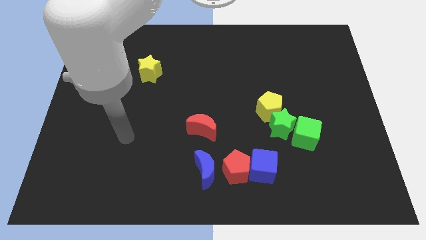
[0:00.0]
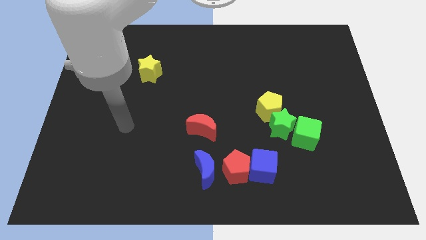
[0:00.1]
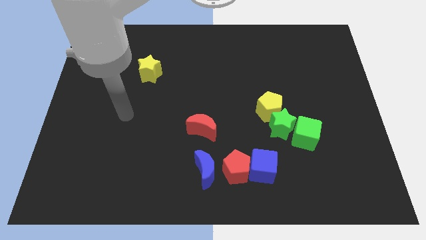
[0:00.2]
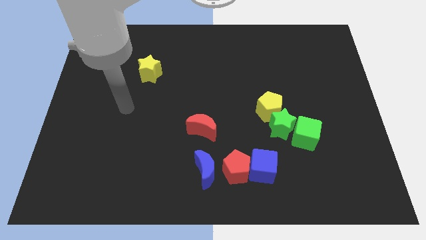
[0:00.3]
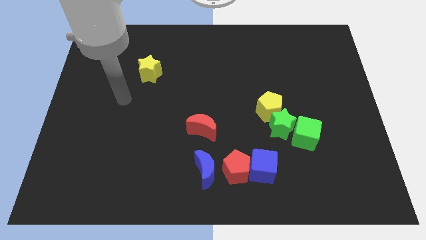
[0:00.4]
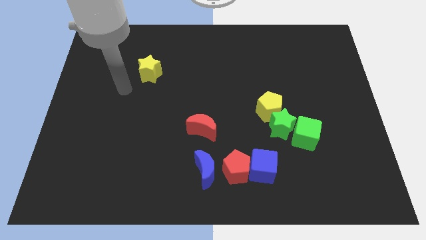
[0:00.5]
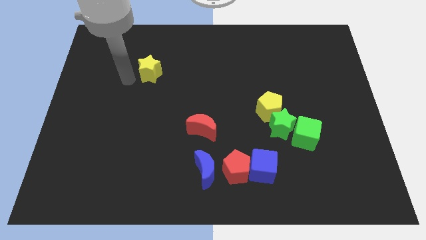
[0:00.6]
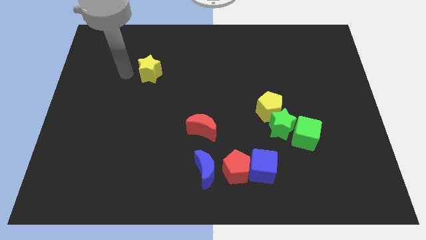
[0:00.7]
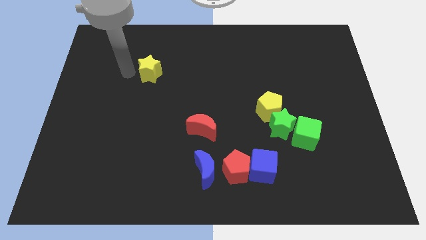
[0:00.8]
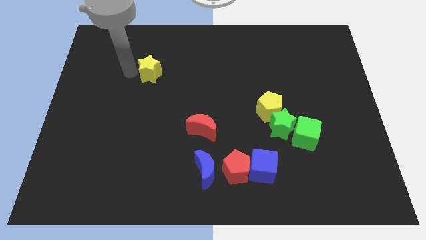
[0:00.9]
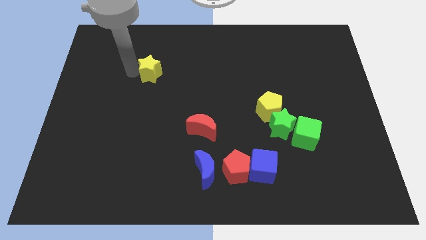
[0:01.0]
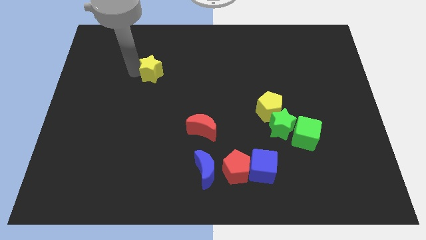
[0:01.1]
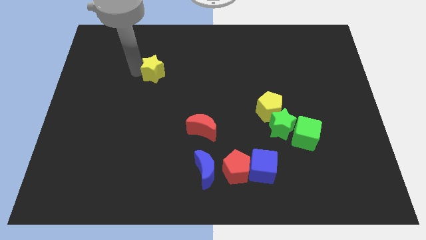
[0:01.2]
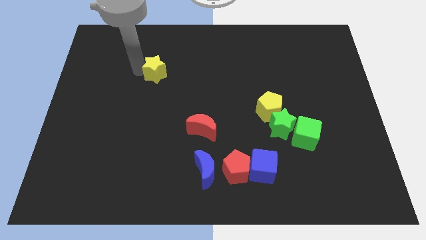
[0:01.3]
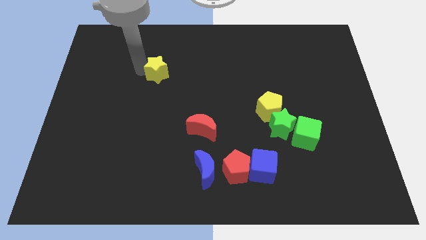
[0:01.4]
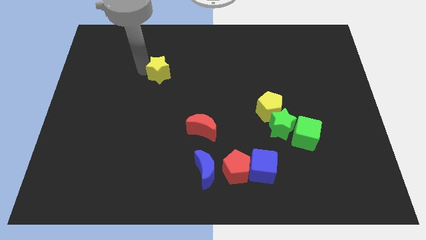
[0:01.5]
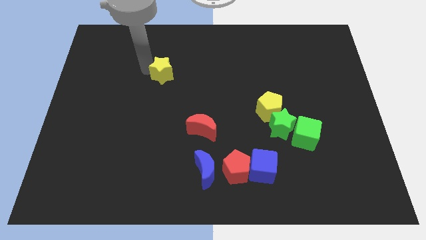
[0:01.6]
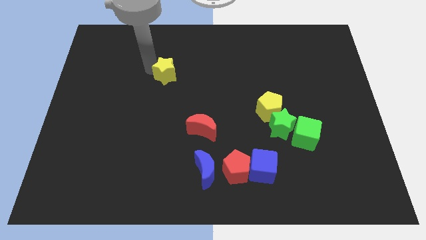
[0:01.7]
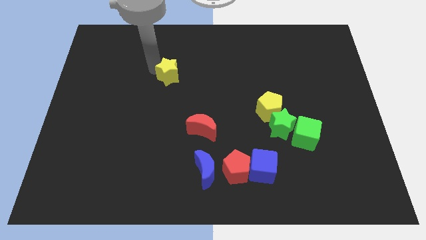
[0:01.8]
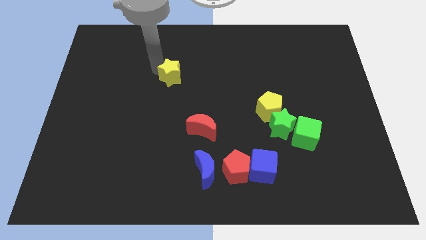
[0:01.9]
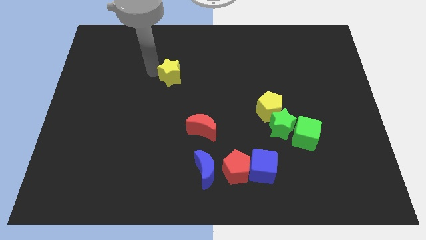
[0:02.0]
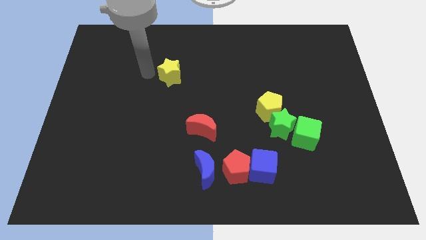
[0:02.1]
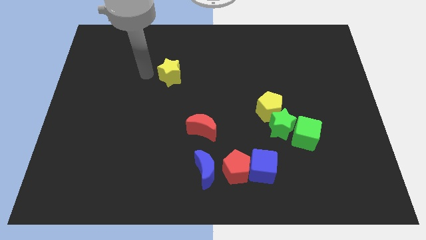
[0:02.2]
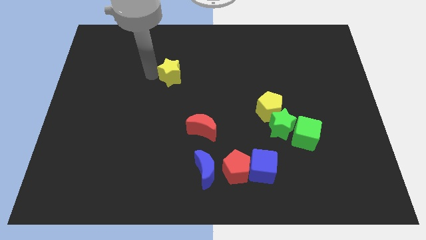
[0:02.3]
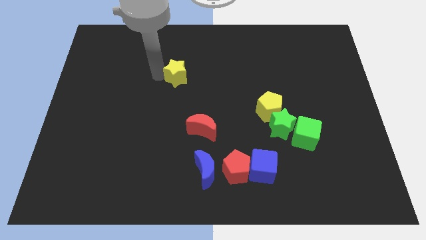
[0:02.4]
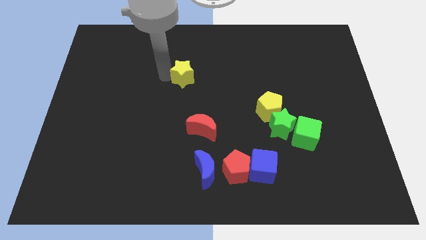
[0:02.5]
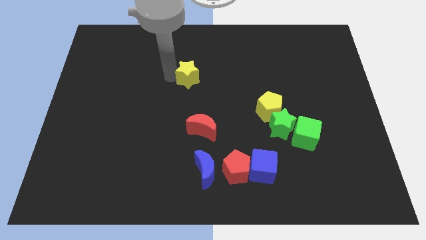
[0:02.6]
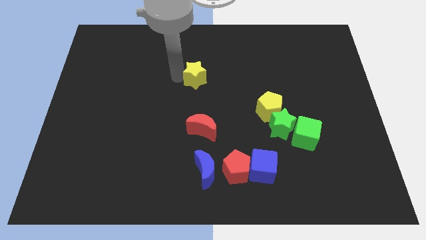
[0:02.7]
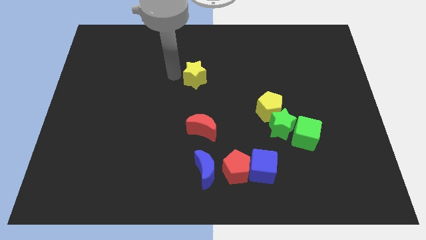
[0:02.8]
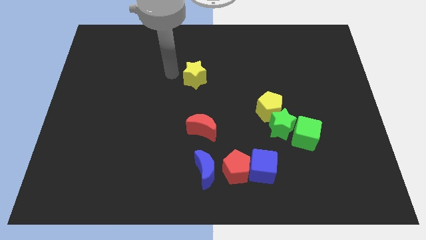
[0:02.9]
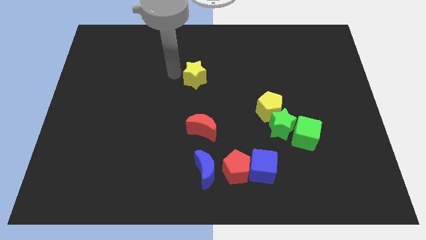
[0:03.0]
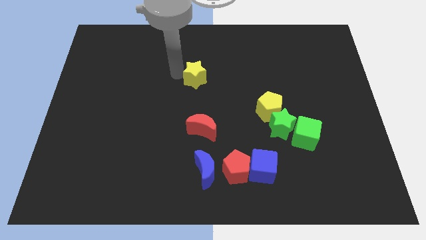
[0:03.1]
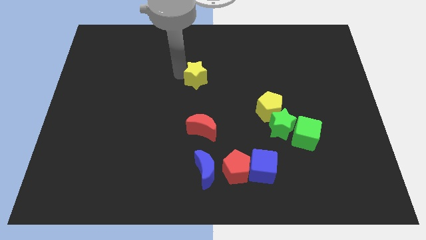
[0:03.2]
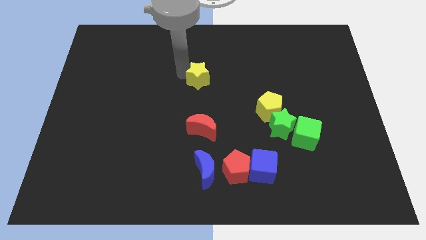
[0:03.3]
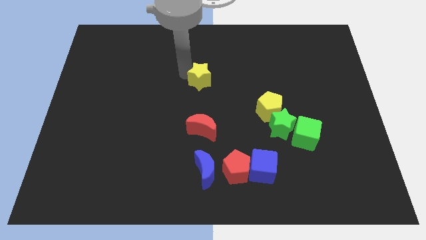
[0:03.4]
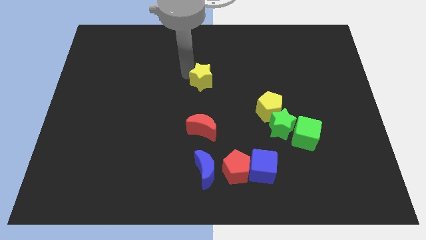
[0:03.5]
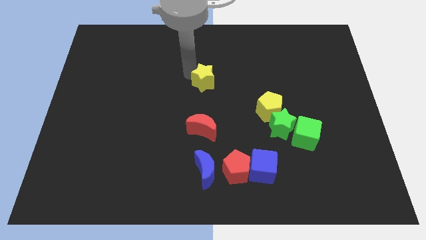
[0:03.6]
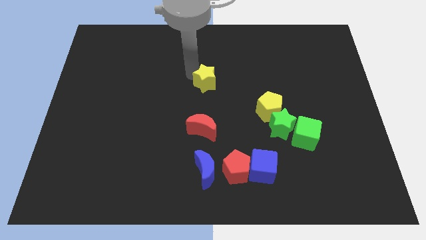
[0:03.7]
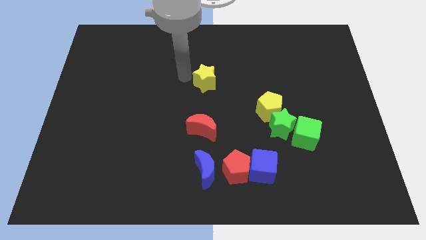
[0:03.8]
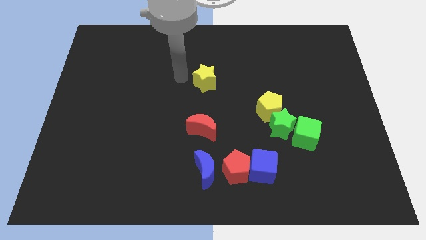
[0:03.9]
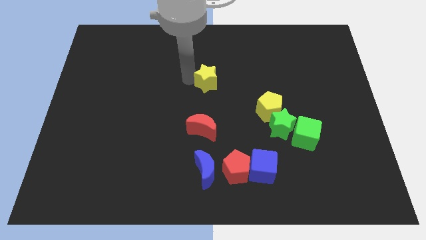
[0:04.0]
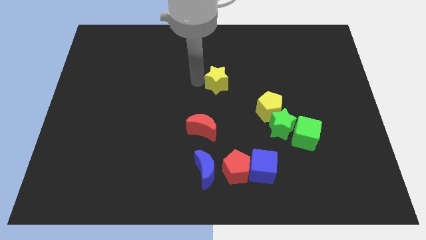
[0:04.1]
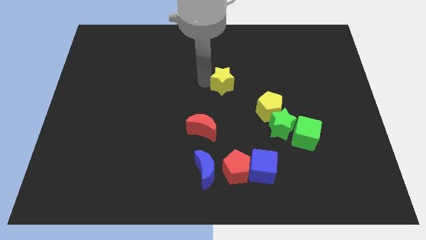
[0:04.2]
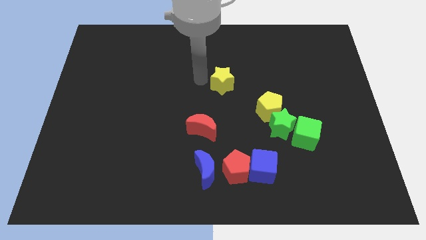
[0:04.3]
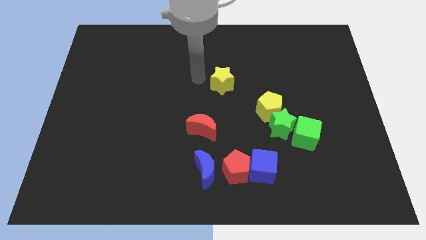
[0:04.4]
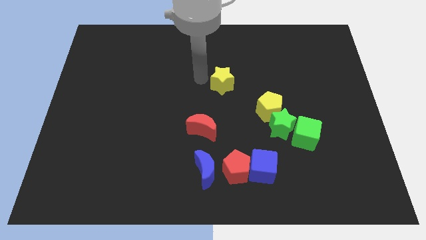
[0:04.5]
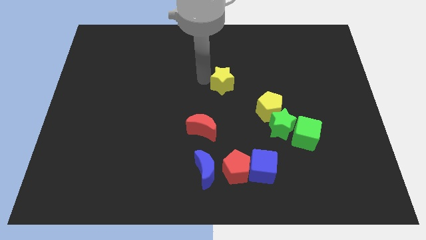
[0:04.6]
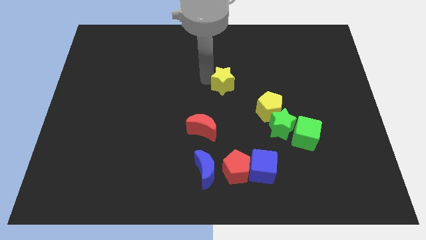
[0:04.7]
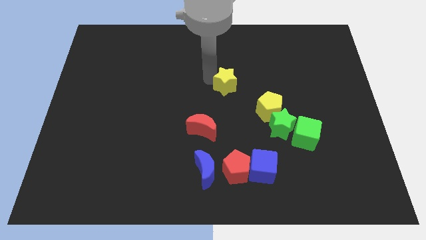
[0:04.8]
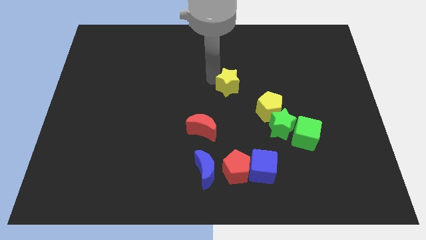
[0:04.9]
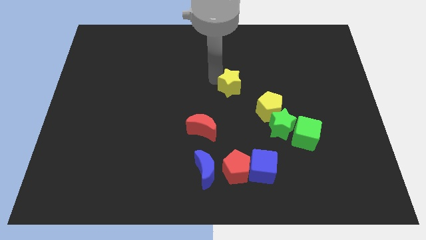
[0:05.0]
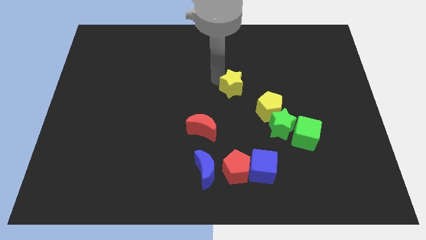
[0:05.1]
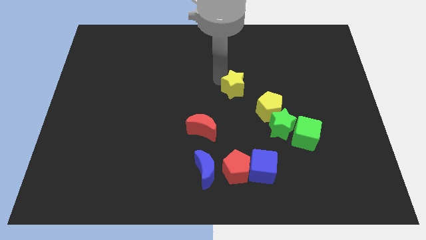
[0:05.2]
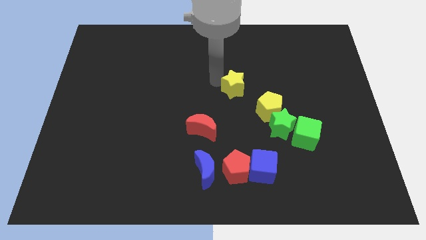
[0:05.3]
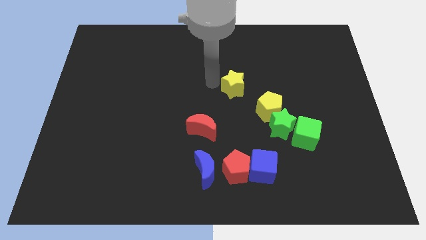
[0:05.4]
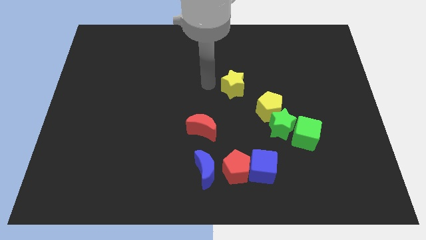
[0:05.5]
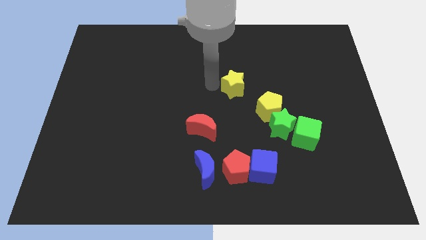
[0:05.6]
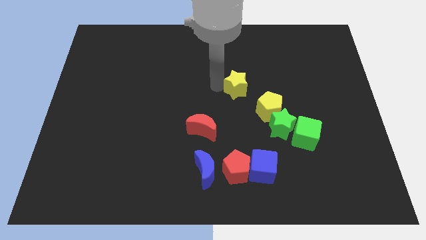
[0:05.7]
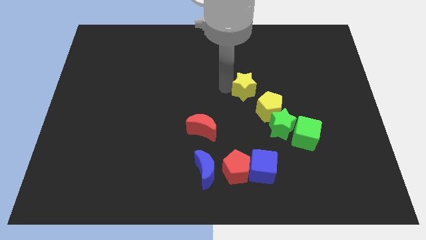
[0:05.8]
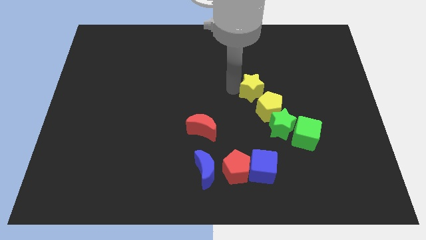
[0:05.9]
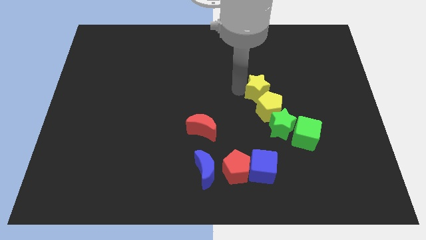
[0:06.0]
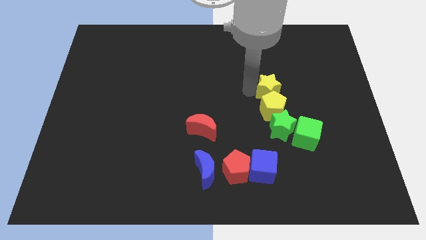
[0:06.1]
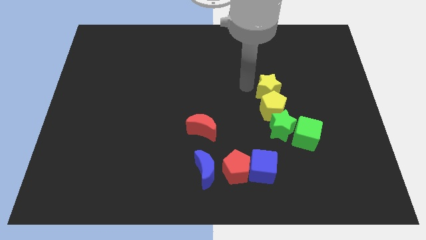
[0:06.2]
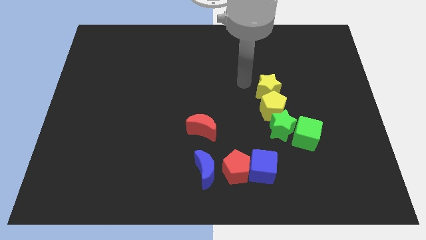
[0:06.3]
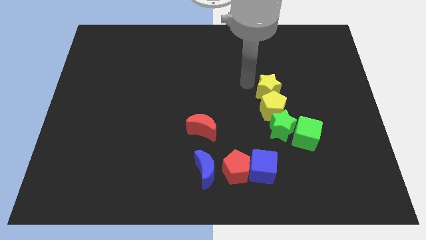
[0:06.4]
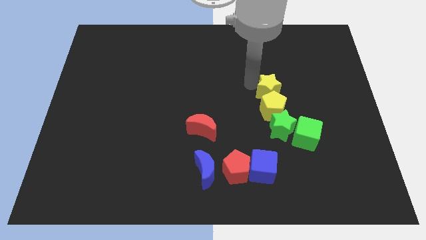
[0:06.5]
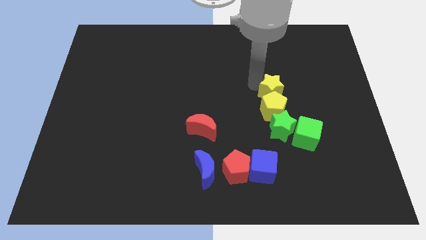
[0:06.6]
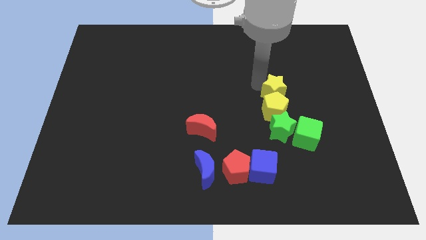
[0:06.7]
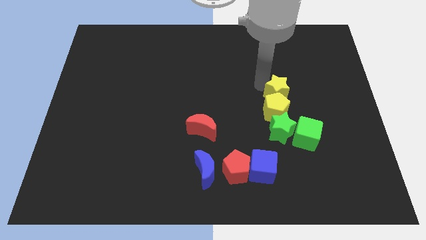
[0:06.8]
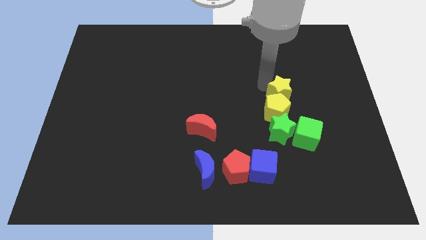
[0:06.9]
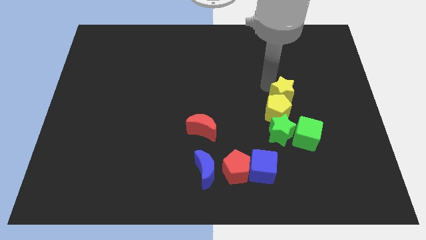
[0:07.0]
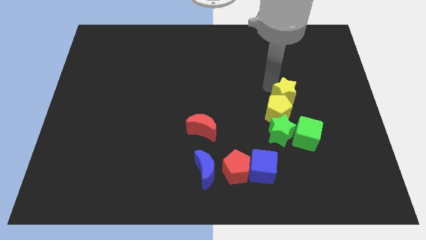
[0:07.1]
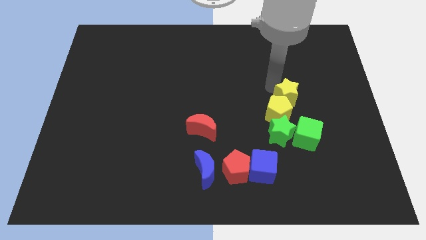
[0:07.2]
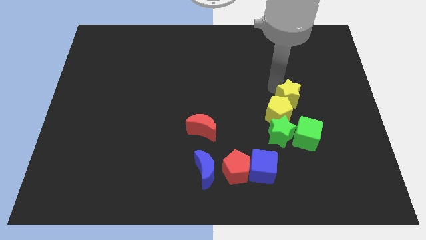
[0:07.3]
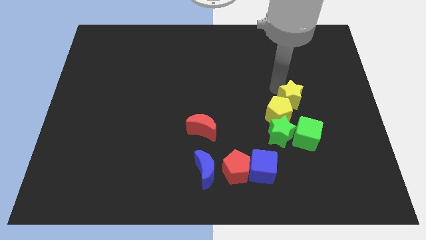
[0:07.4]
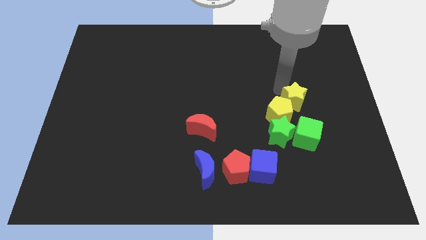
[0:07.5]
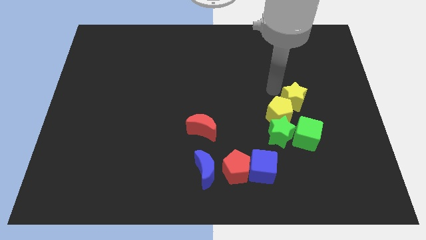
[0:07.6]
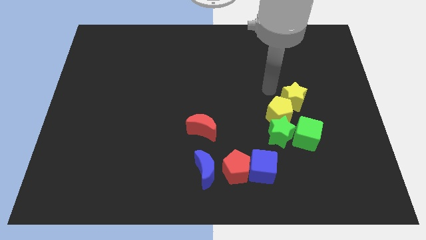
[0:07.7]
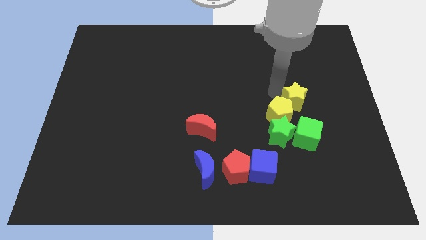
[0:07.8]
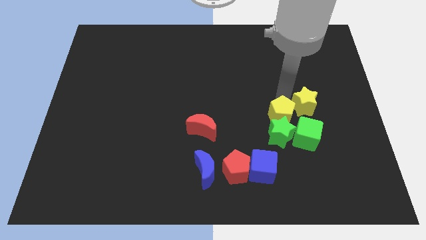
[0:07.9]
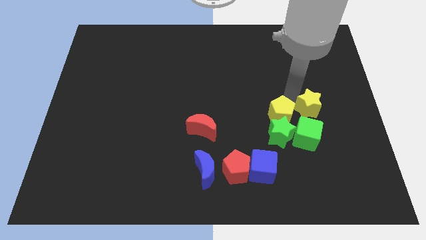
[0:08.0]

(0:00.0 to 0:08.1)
move the yellow star to the top right side of the green cube
